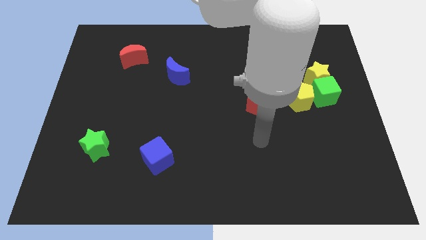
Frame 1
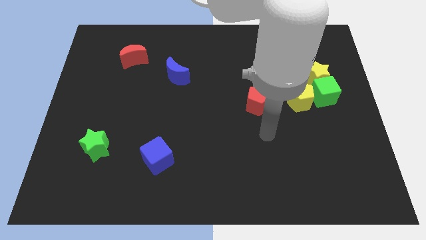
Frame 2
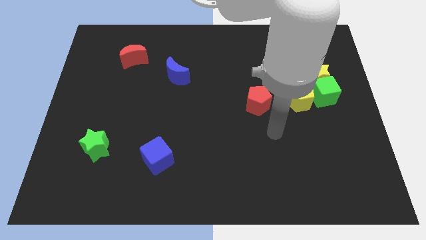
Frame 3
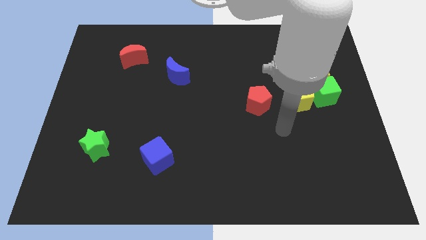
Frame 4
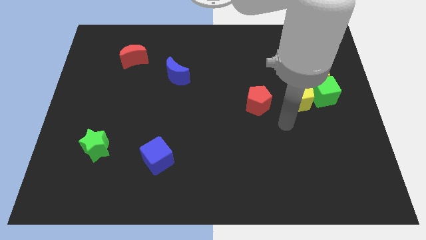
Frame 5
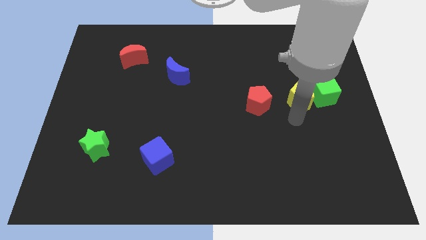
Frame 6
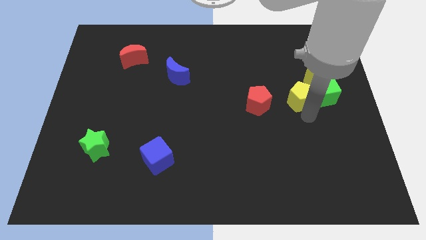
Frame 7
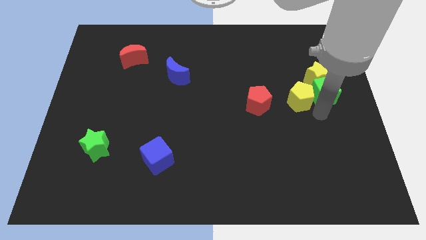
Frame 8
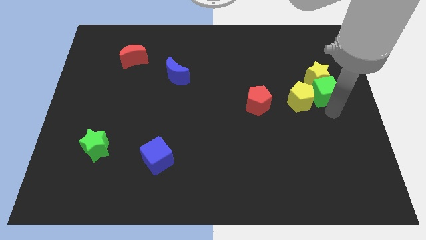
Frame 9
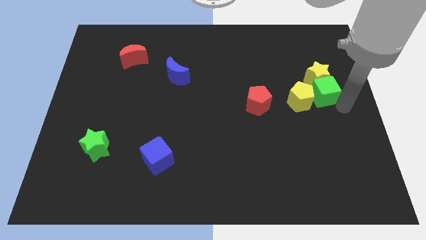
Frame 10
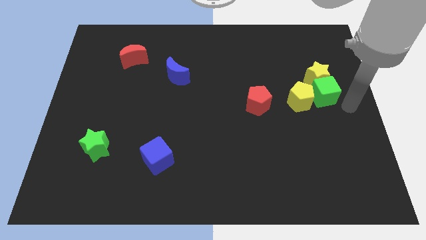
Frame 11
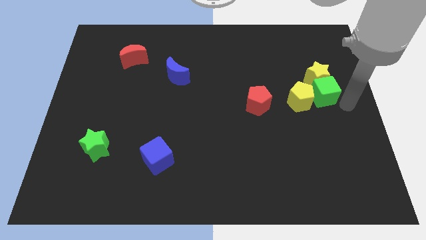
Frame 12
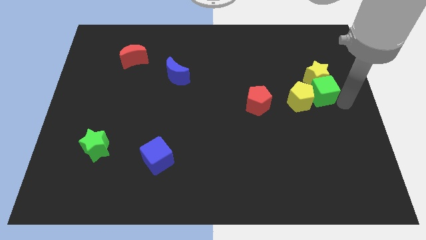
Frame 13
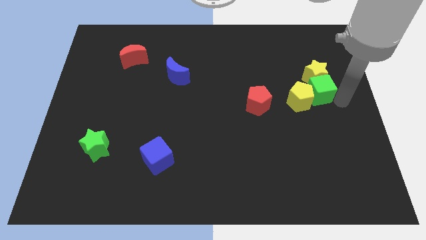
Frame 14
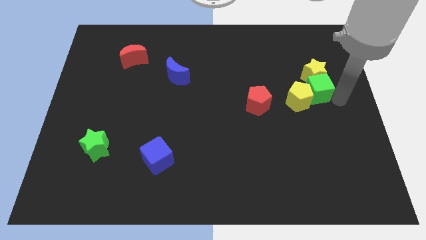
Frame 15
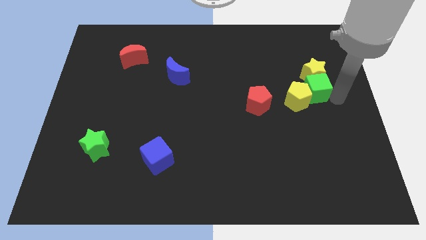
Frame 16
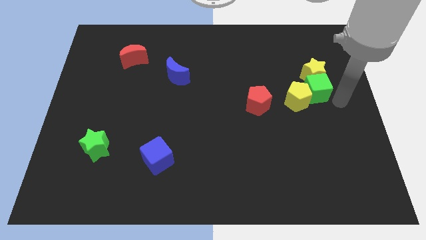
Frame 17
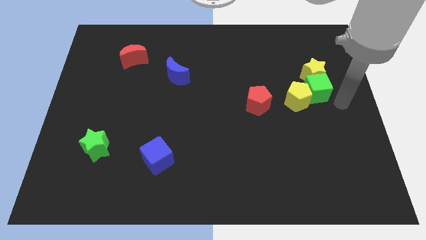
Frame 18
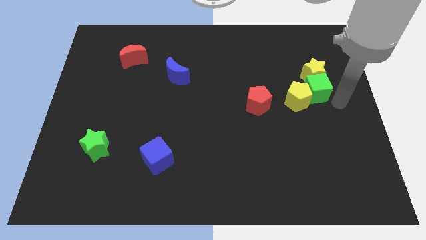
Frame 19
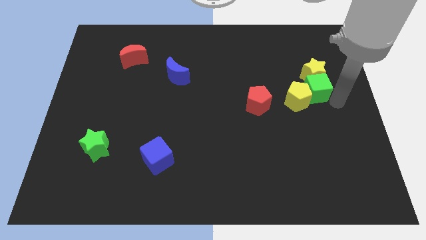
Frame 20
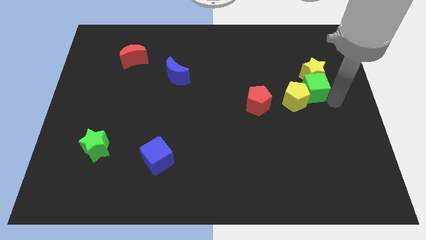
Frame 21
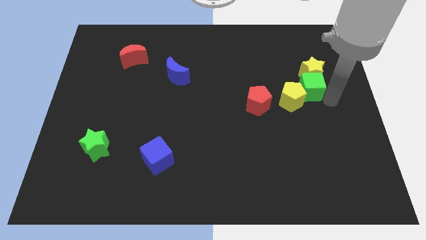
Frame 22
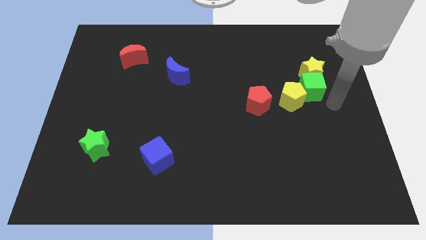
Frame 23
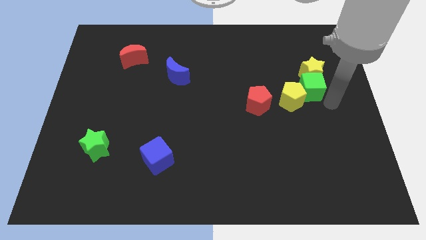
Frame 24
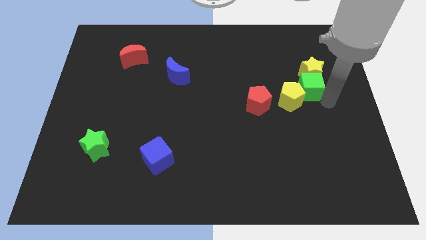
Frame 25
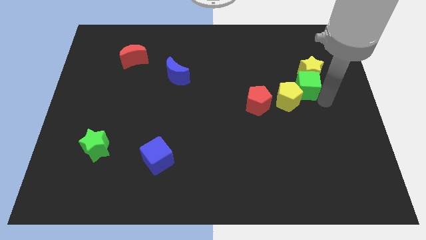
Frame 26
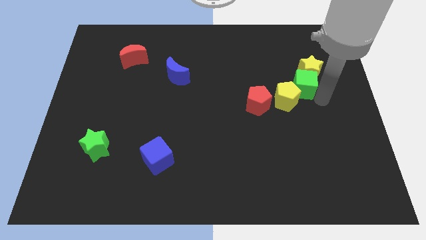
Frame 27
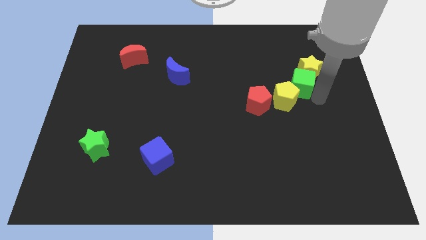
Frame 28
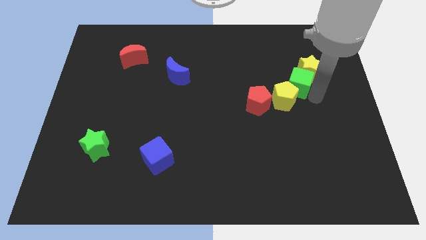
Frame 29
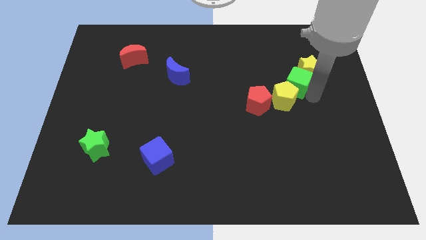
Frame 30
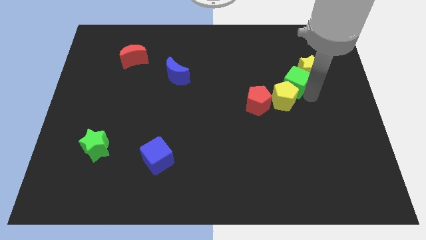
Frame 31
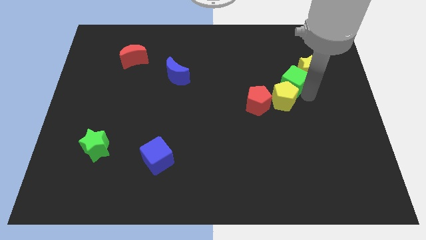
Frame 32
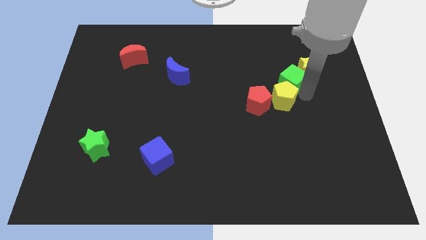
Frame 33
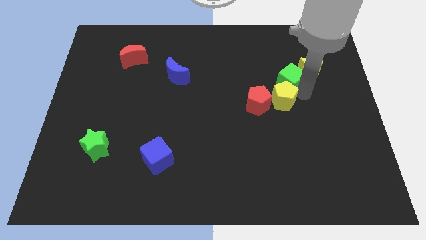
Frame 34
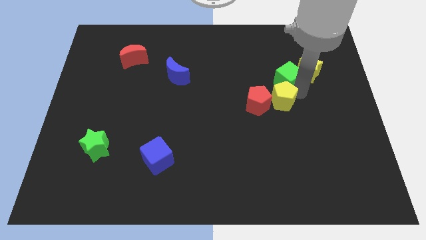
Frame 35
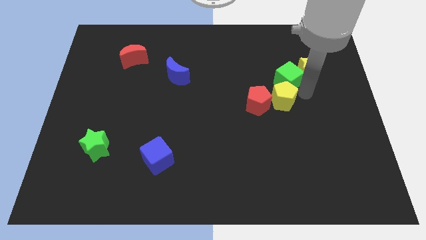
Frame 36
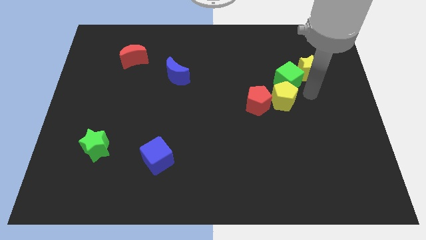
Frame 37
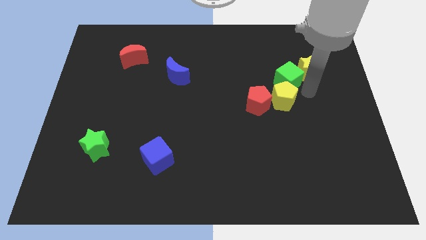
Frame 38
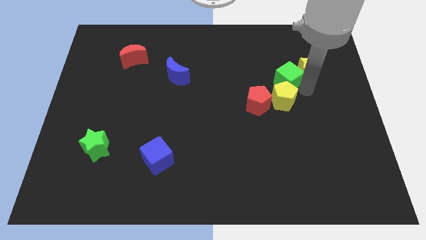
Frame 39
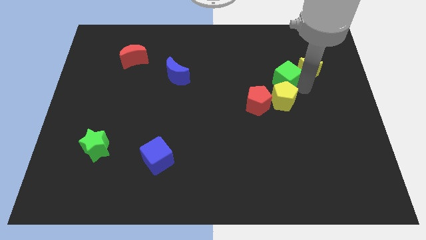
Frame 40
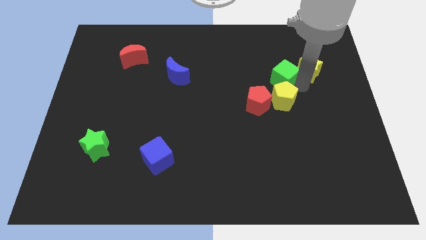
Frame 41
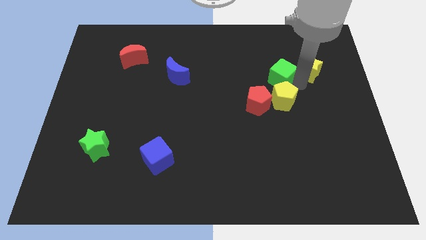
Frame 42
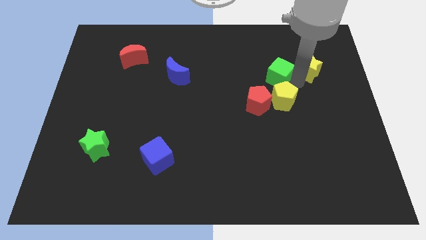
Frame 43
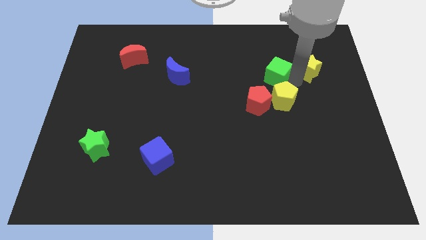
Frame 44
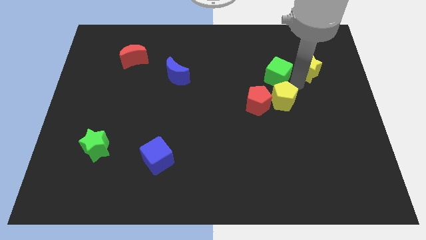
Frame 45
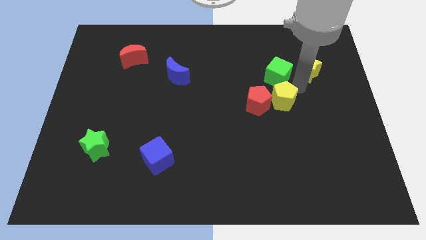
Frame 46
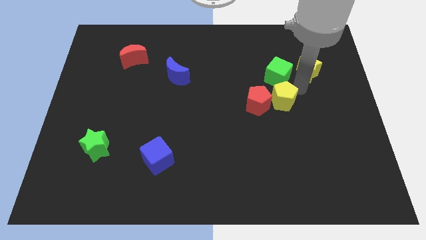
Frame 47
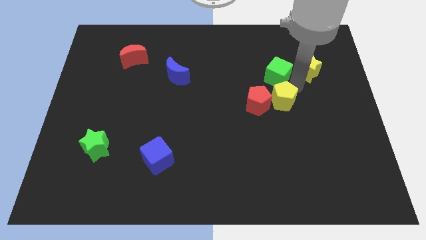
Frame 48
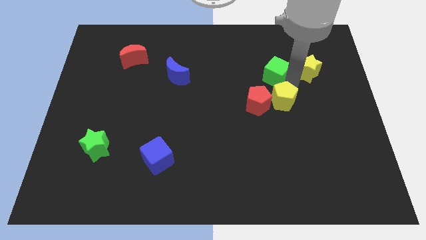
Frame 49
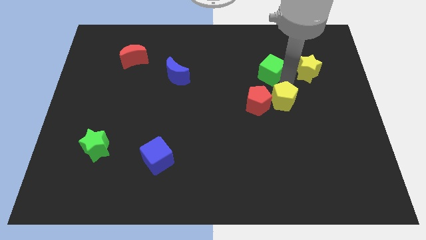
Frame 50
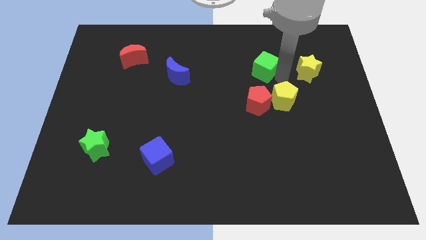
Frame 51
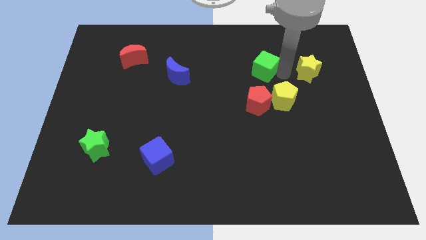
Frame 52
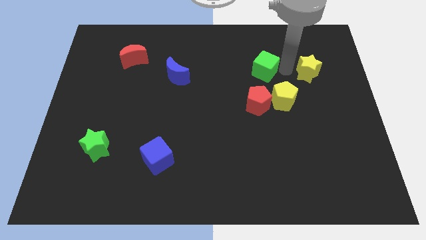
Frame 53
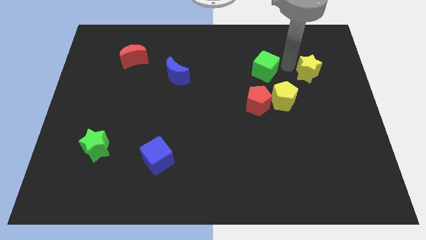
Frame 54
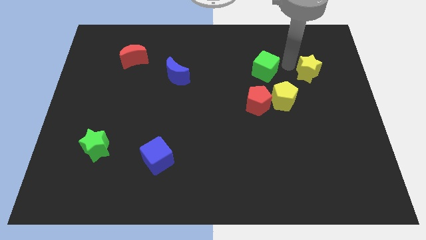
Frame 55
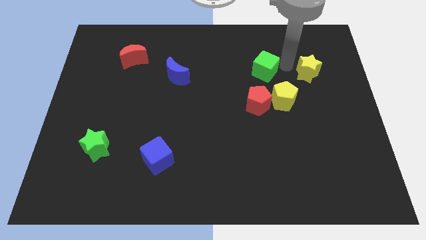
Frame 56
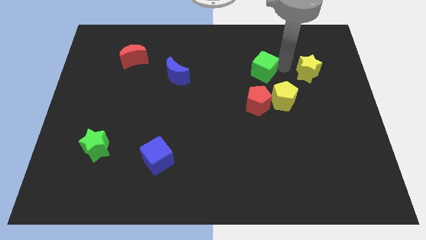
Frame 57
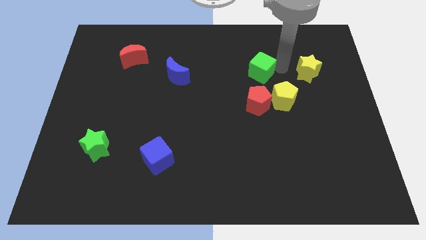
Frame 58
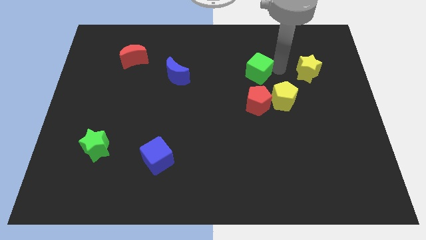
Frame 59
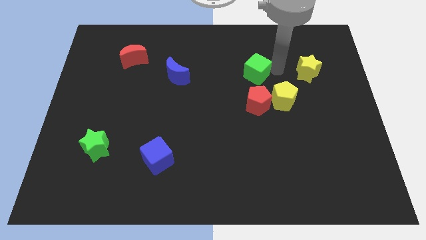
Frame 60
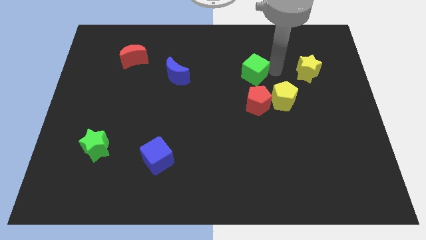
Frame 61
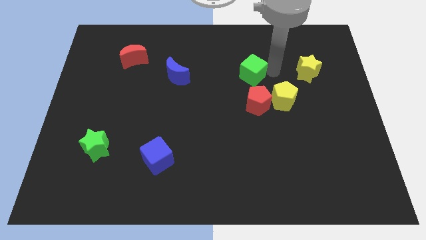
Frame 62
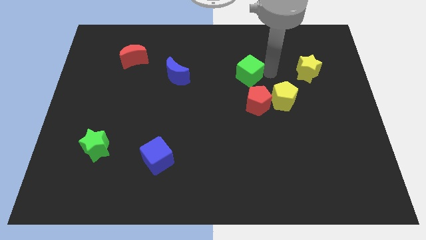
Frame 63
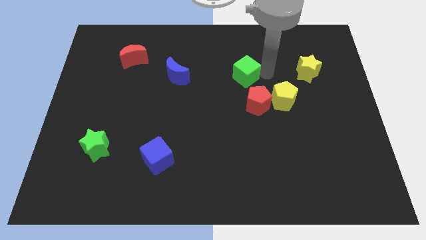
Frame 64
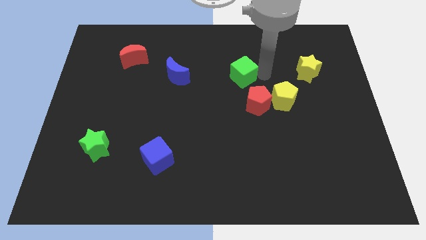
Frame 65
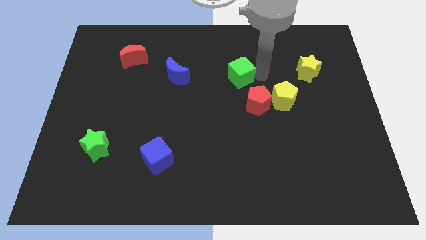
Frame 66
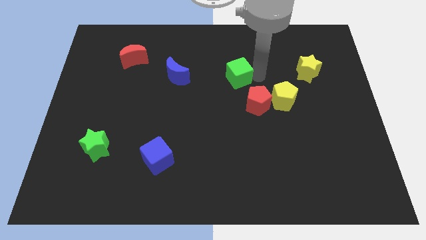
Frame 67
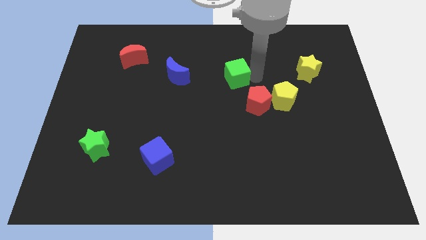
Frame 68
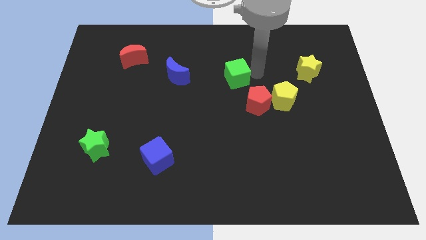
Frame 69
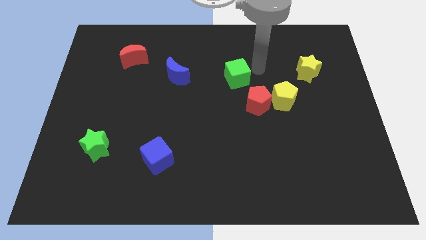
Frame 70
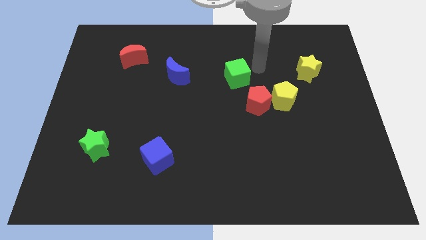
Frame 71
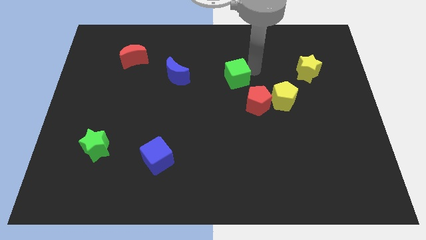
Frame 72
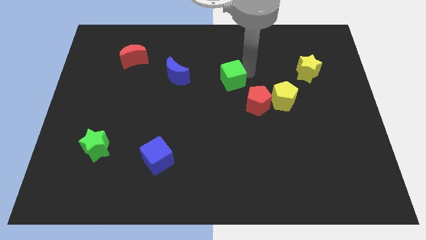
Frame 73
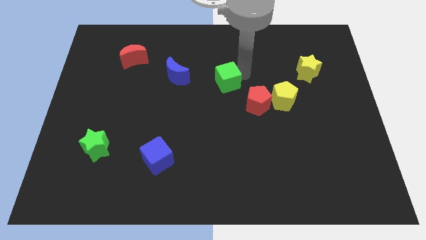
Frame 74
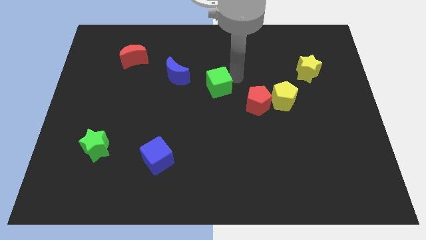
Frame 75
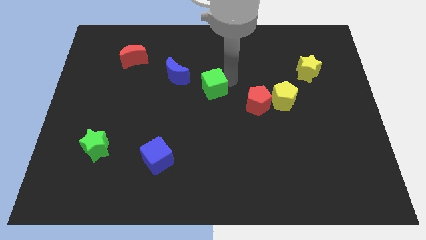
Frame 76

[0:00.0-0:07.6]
slide the green cube to the bottom right of the blue moon
